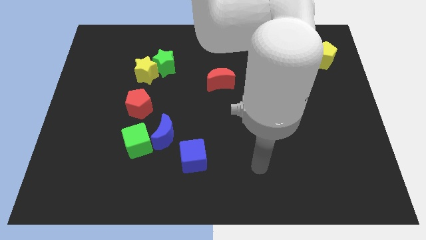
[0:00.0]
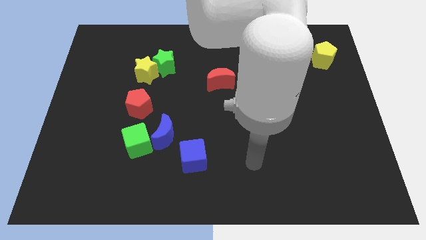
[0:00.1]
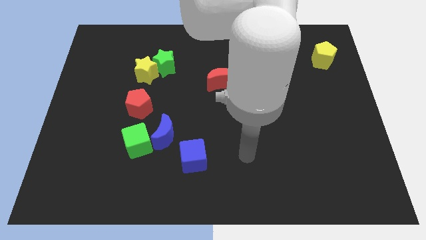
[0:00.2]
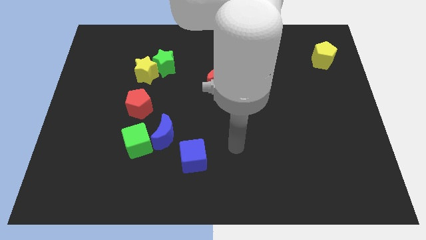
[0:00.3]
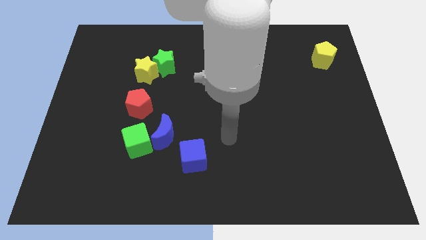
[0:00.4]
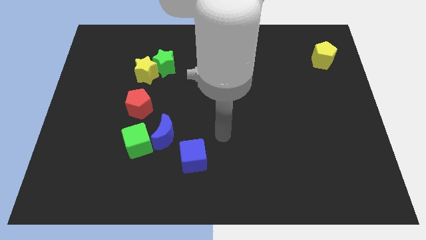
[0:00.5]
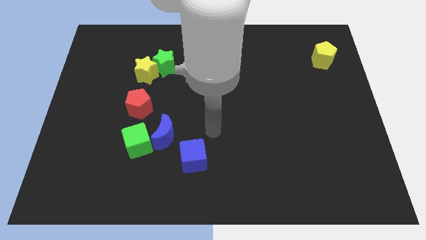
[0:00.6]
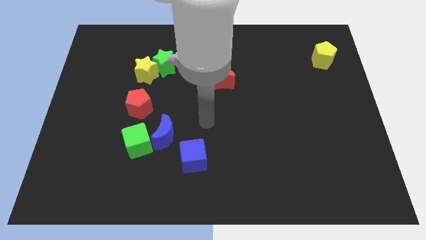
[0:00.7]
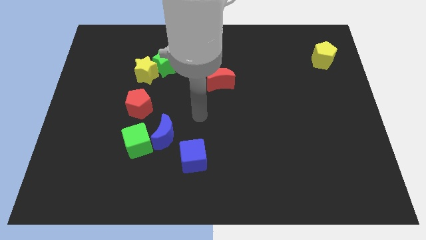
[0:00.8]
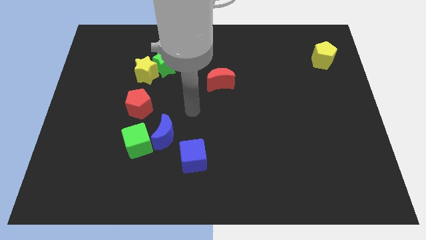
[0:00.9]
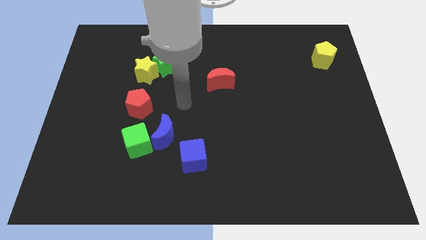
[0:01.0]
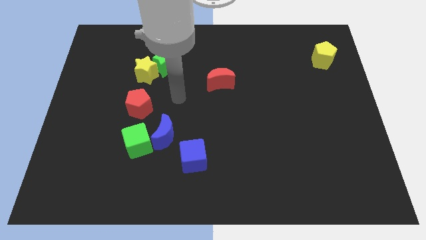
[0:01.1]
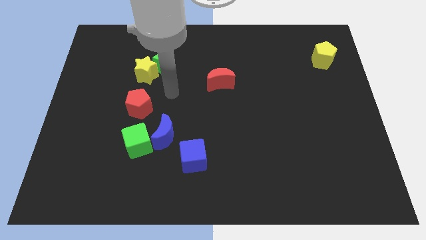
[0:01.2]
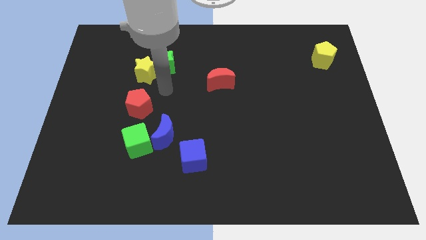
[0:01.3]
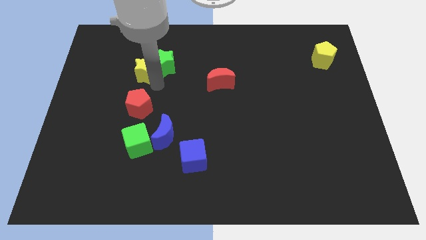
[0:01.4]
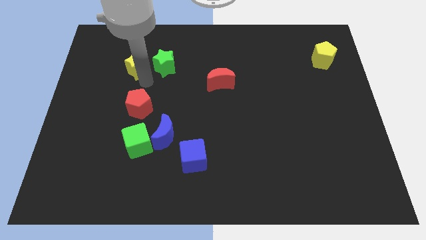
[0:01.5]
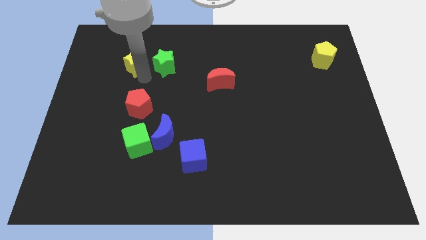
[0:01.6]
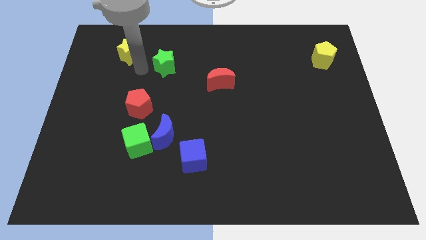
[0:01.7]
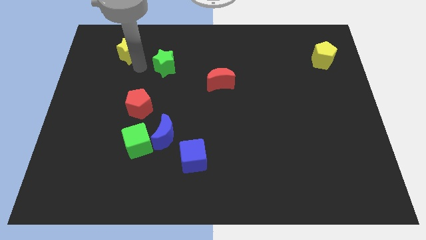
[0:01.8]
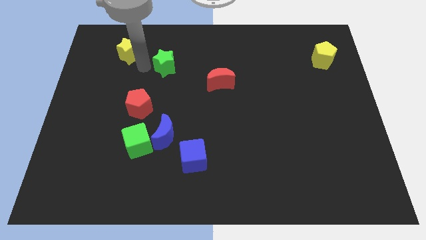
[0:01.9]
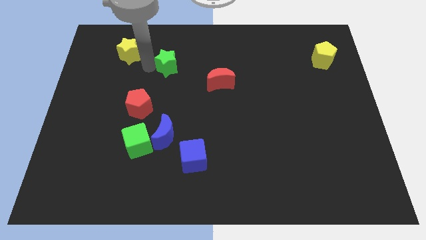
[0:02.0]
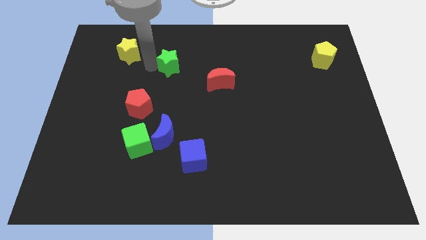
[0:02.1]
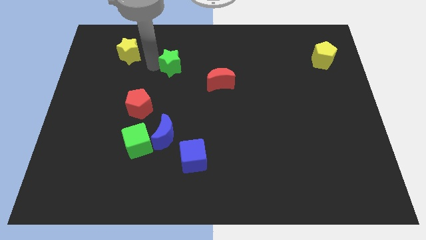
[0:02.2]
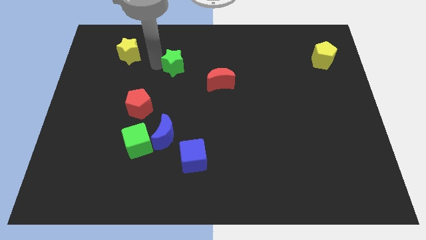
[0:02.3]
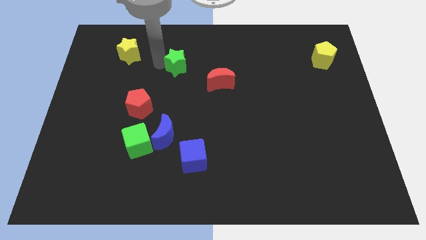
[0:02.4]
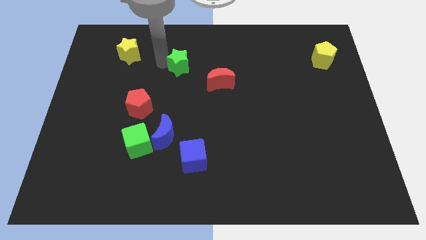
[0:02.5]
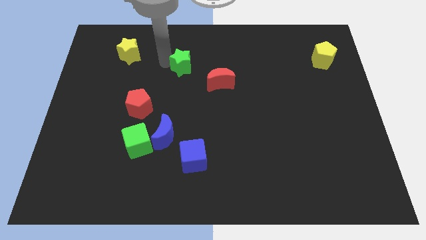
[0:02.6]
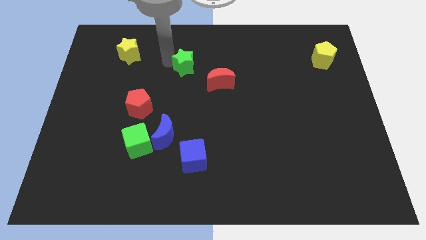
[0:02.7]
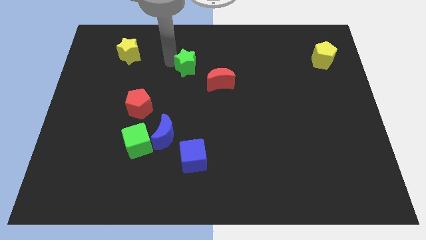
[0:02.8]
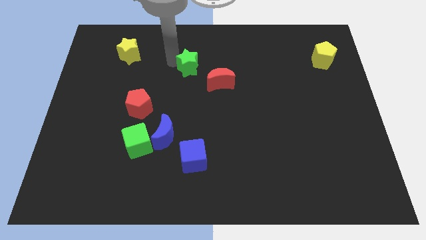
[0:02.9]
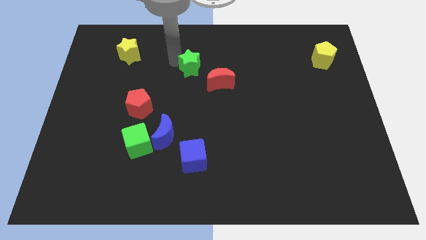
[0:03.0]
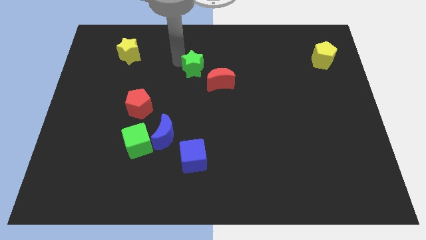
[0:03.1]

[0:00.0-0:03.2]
slightly move the green star right

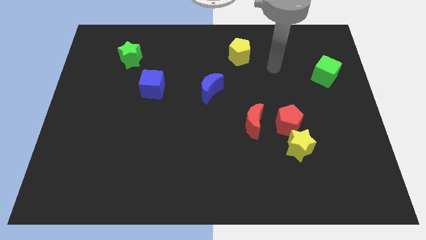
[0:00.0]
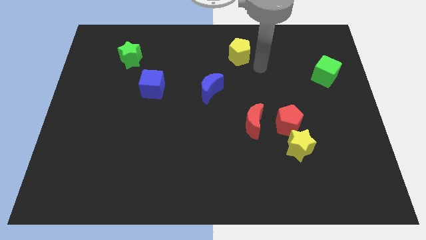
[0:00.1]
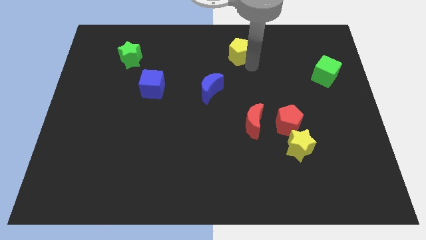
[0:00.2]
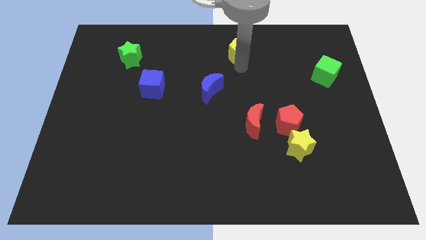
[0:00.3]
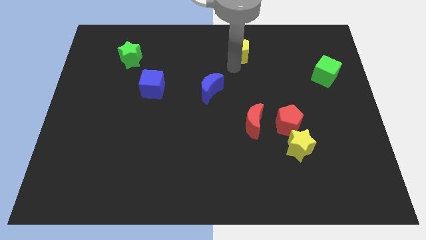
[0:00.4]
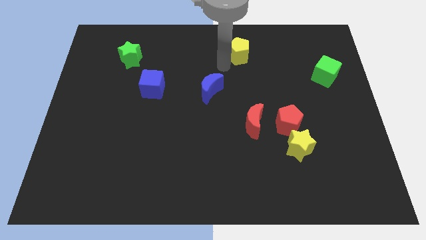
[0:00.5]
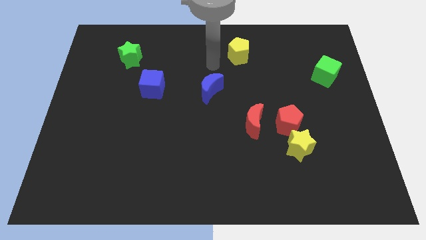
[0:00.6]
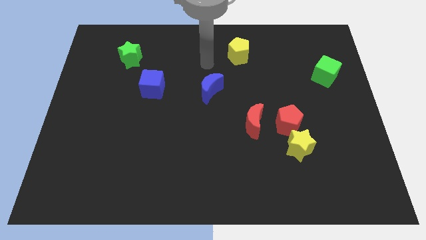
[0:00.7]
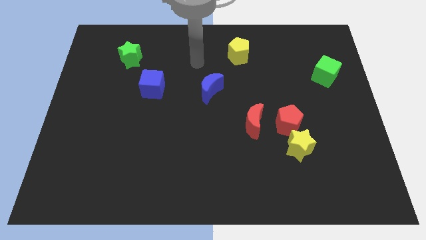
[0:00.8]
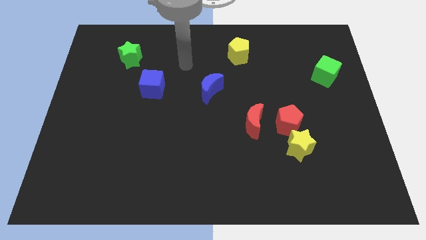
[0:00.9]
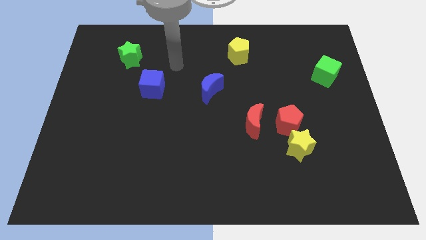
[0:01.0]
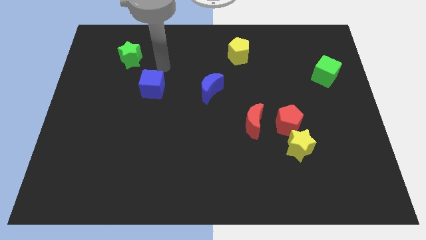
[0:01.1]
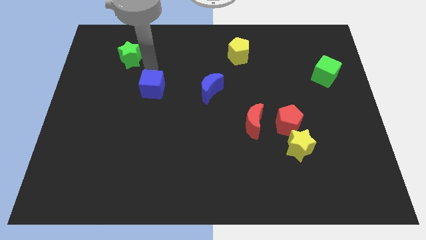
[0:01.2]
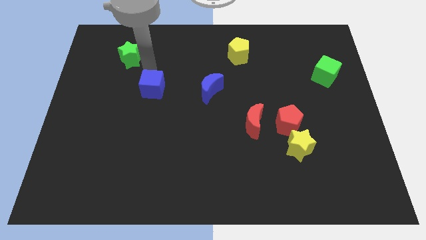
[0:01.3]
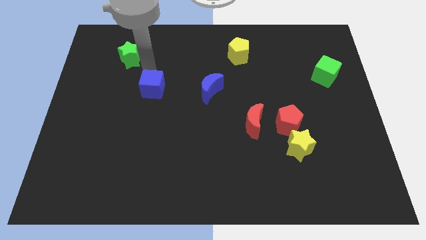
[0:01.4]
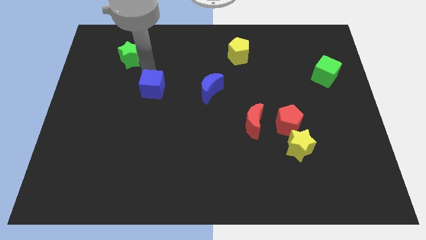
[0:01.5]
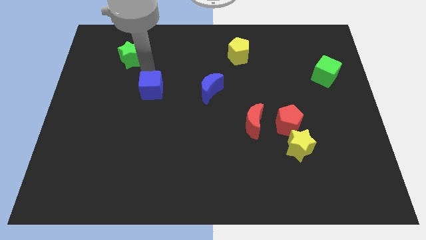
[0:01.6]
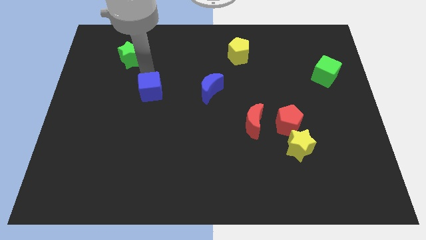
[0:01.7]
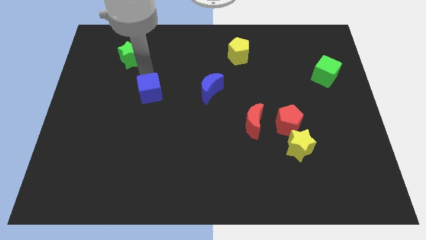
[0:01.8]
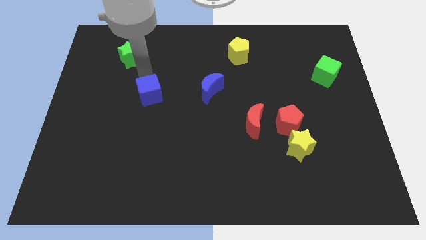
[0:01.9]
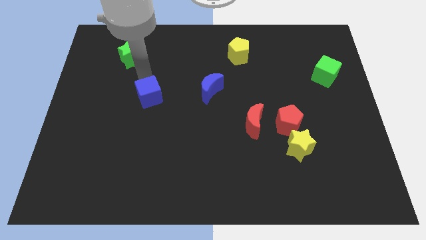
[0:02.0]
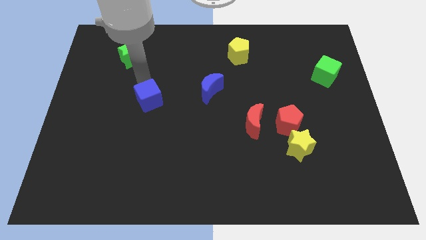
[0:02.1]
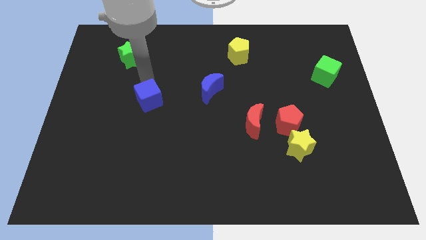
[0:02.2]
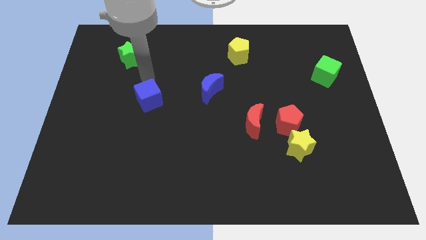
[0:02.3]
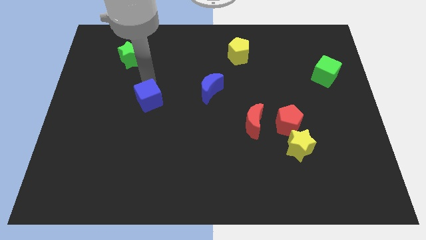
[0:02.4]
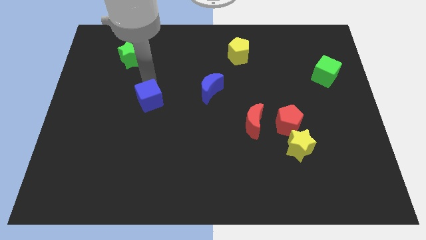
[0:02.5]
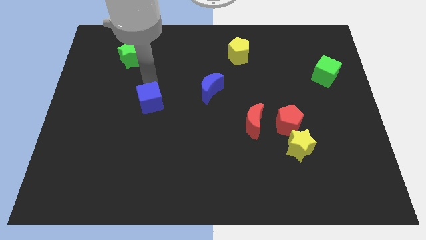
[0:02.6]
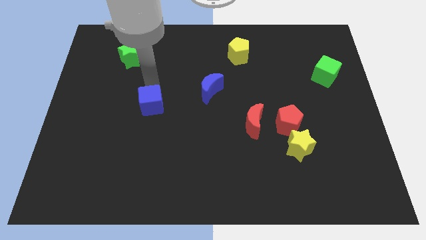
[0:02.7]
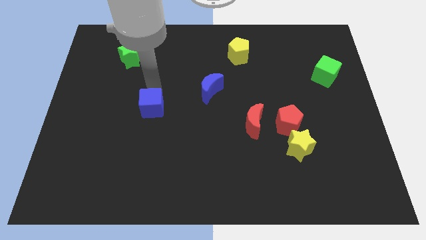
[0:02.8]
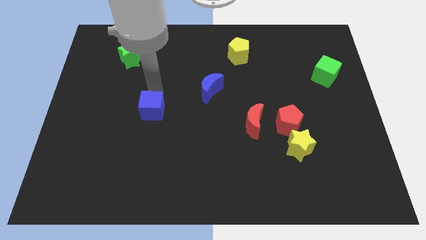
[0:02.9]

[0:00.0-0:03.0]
slide the blue cube a little down

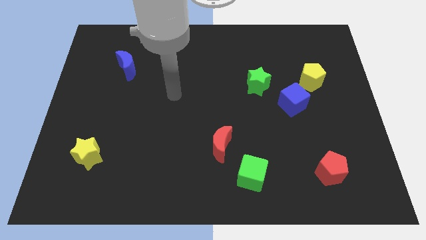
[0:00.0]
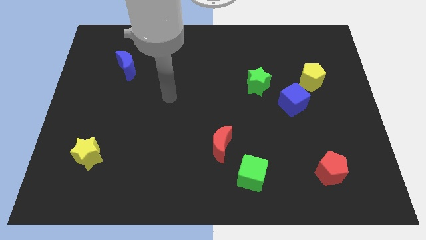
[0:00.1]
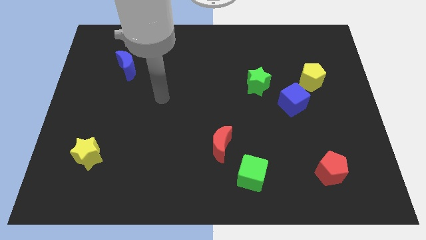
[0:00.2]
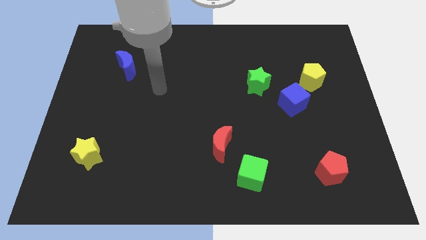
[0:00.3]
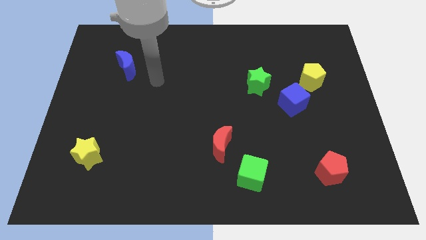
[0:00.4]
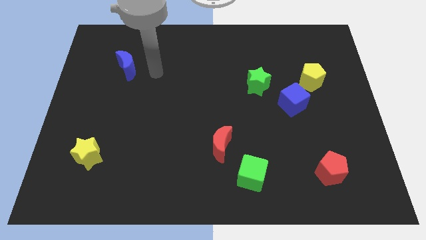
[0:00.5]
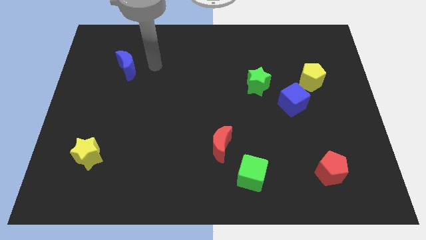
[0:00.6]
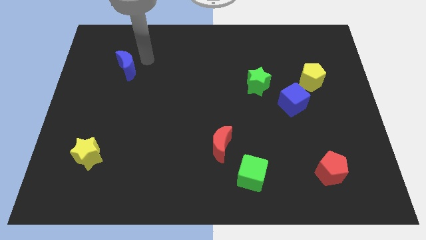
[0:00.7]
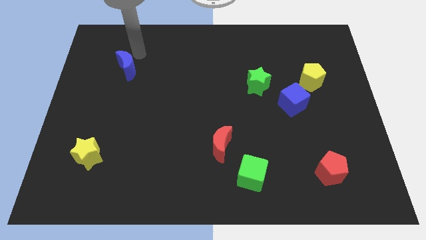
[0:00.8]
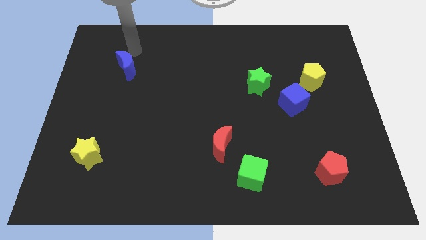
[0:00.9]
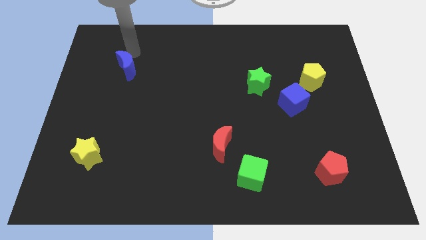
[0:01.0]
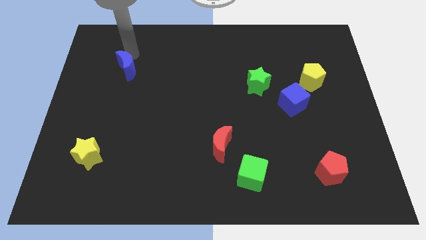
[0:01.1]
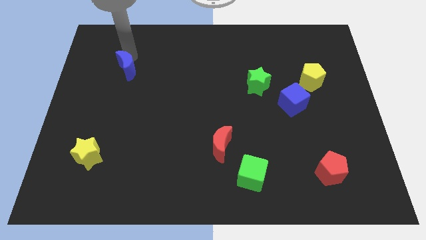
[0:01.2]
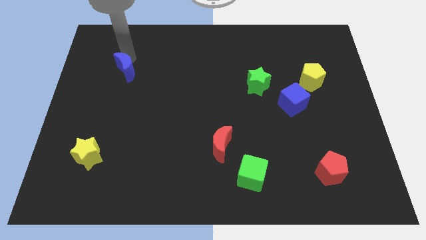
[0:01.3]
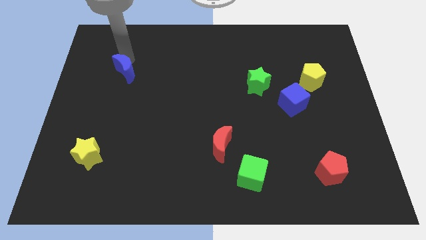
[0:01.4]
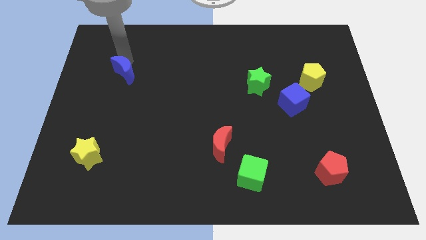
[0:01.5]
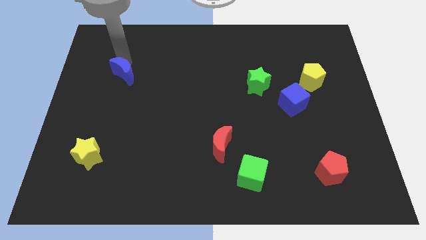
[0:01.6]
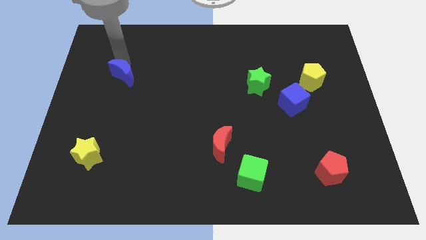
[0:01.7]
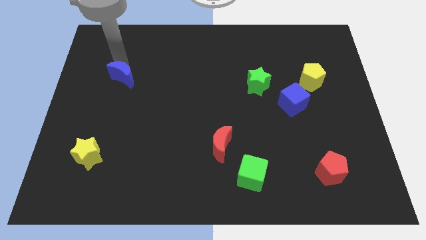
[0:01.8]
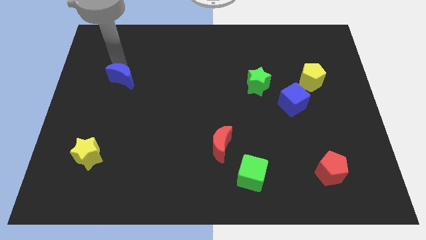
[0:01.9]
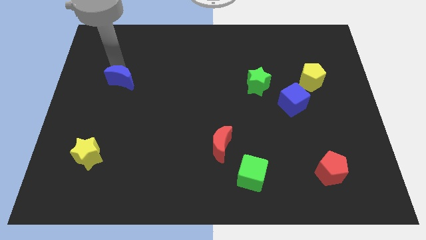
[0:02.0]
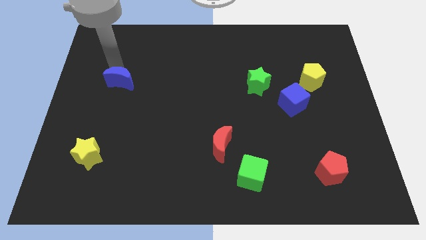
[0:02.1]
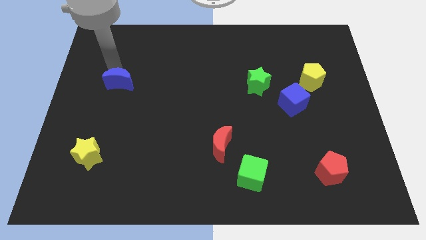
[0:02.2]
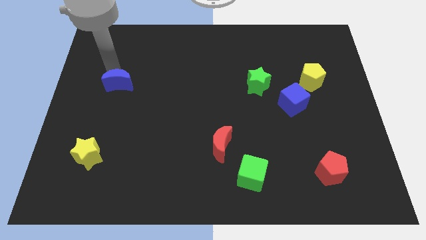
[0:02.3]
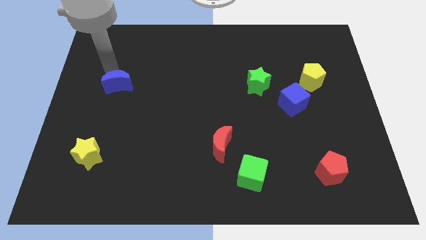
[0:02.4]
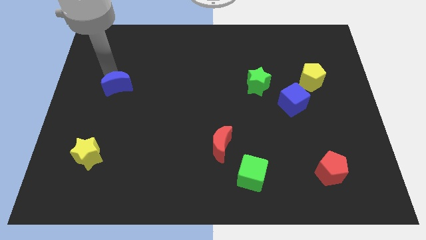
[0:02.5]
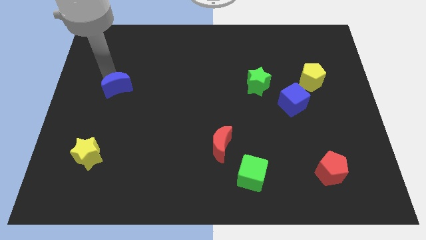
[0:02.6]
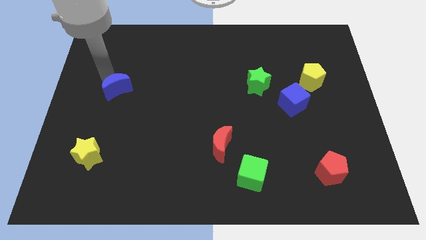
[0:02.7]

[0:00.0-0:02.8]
slightly move the blue moon downwards
